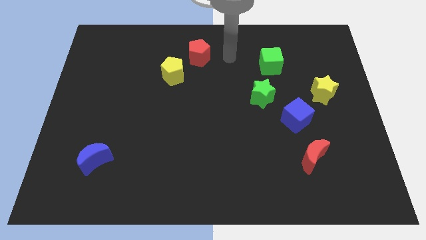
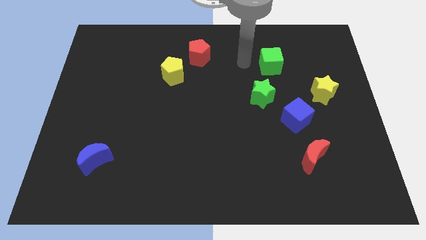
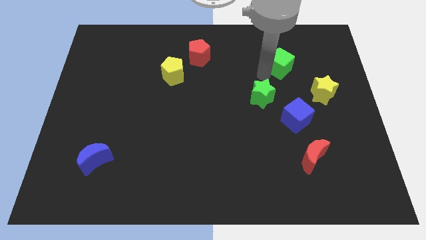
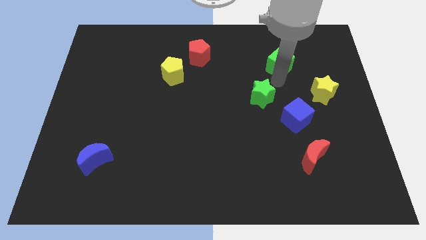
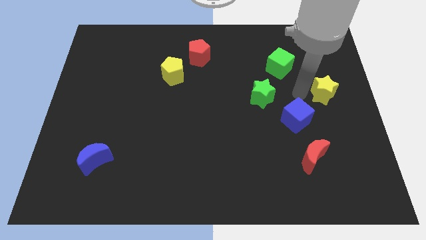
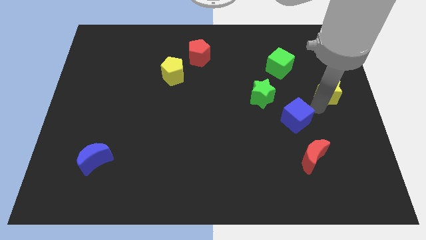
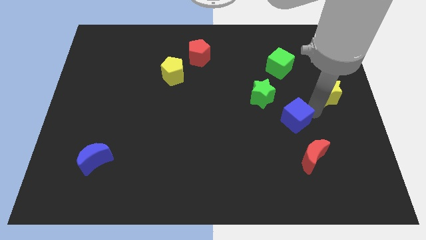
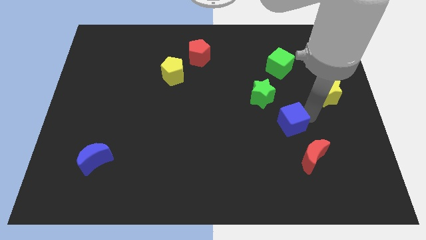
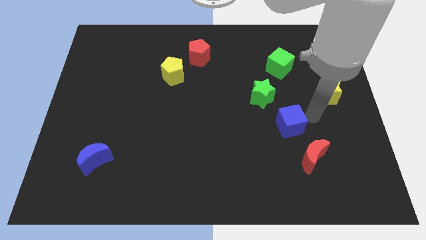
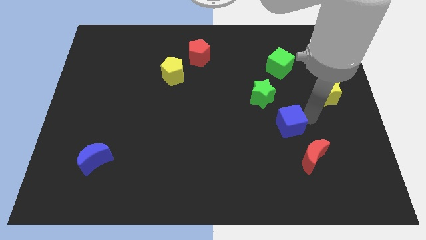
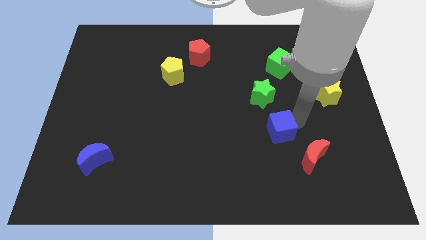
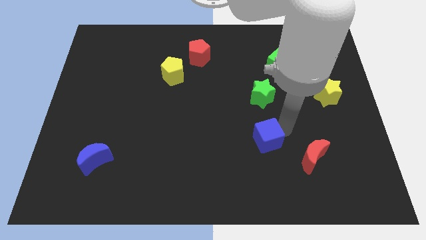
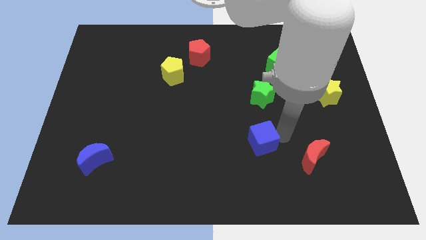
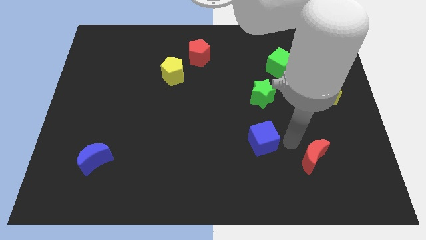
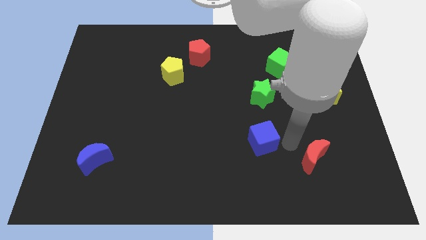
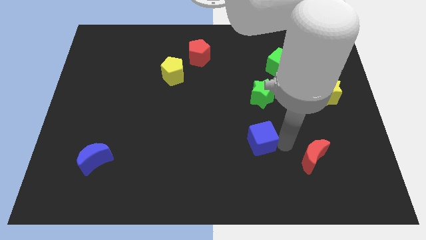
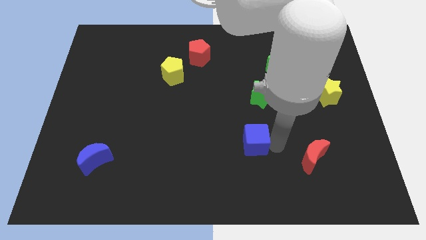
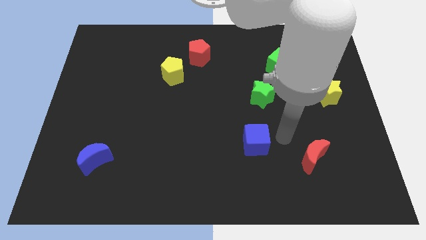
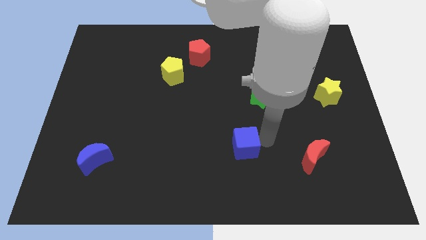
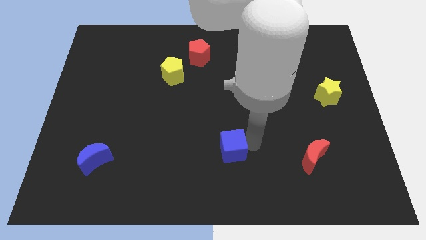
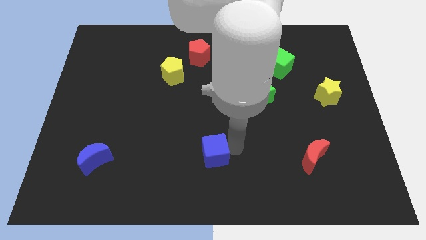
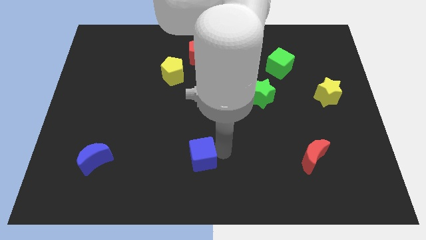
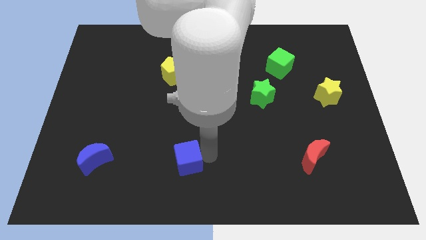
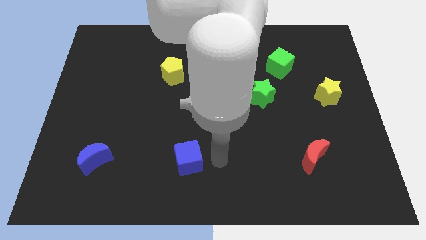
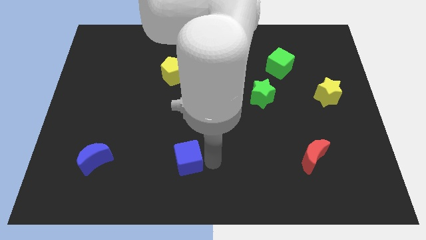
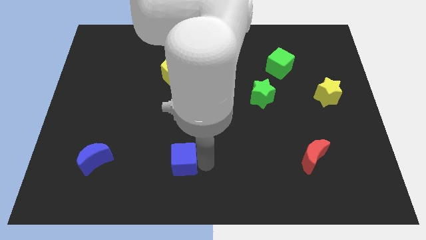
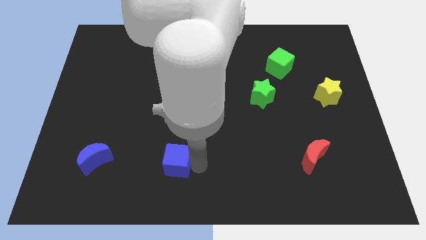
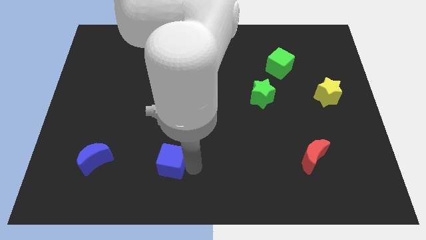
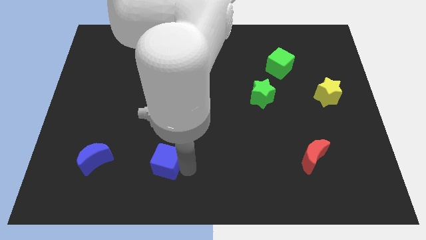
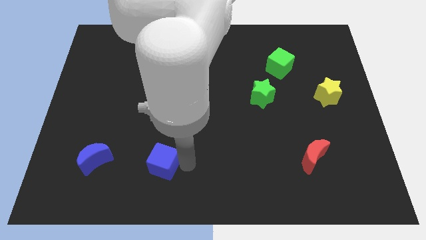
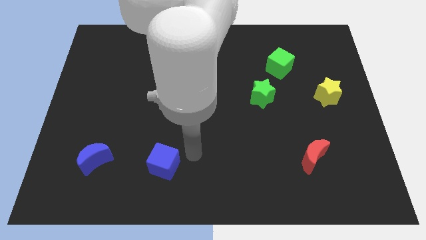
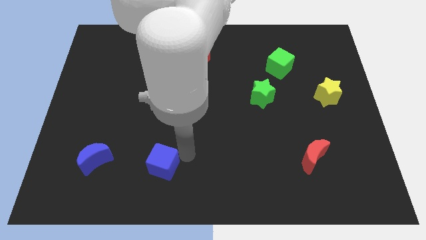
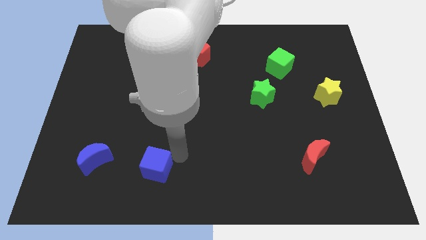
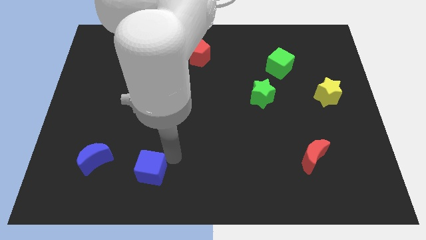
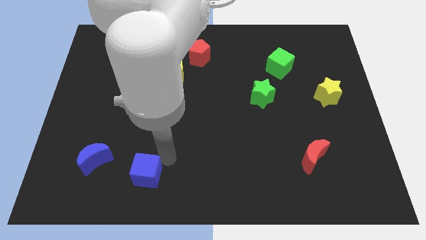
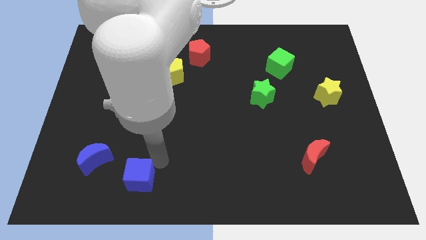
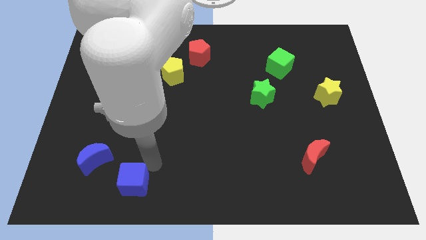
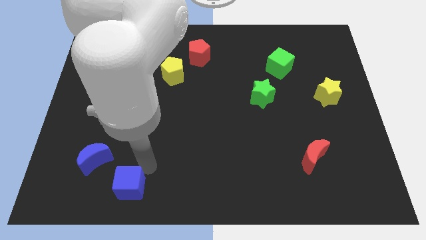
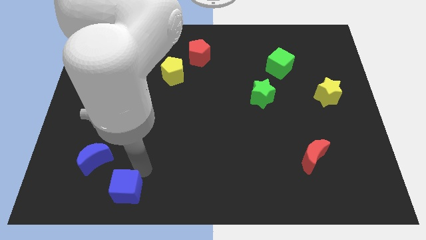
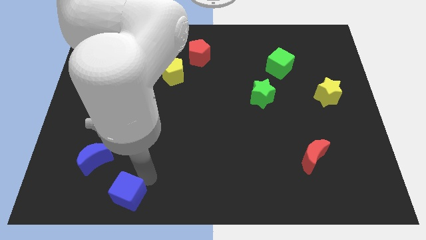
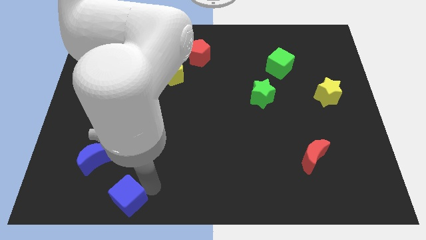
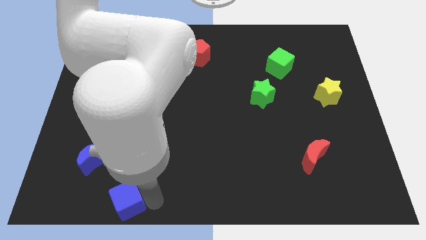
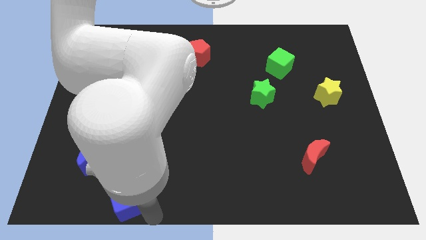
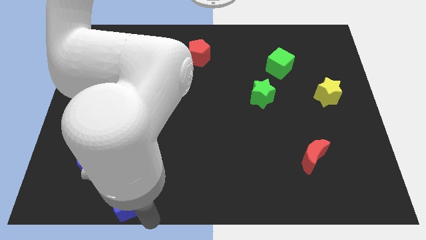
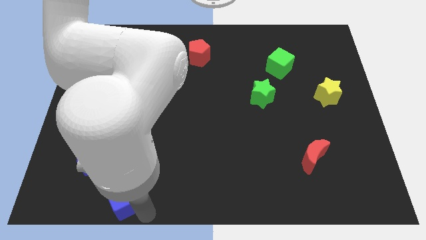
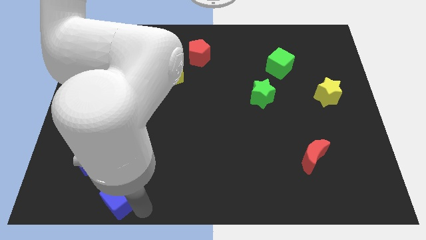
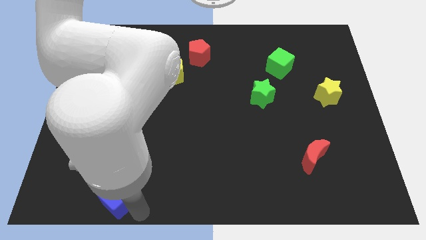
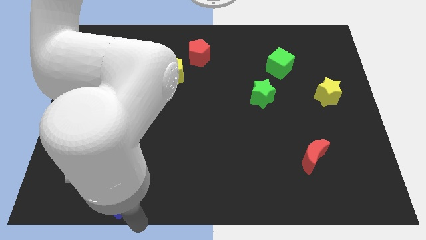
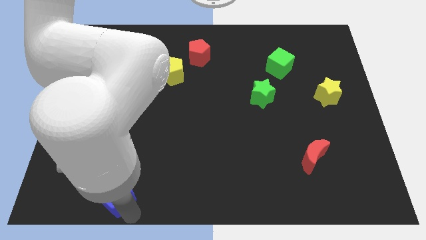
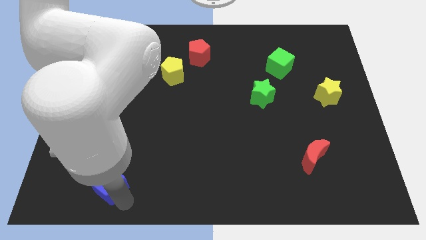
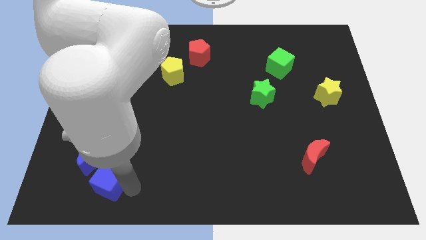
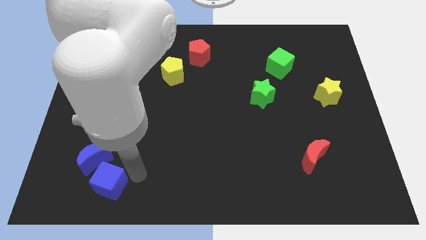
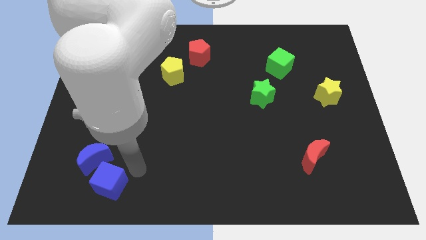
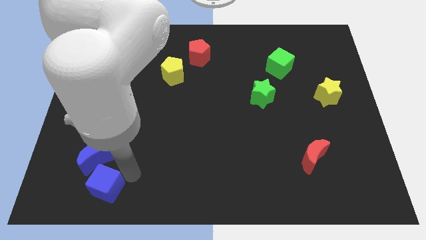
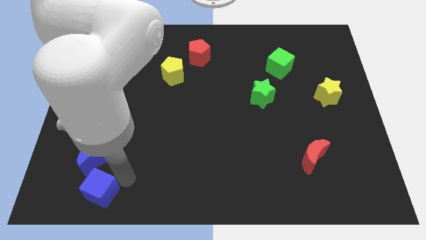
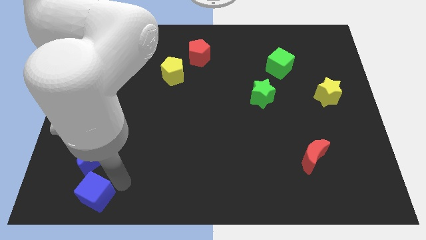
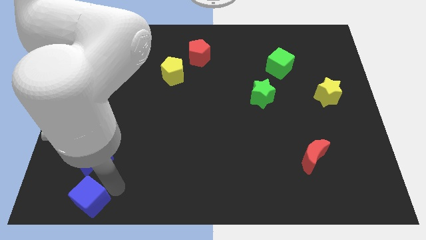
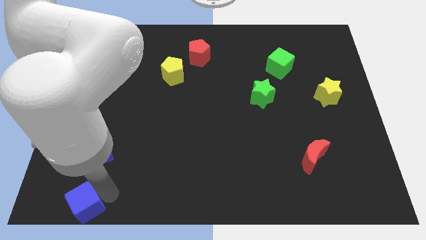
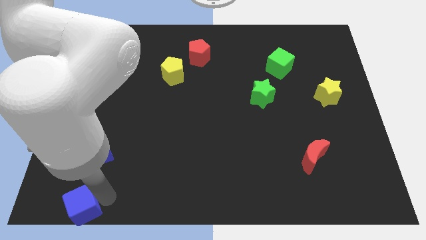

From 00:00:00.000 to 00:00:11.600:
push the blue cube to the bottom left corner

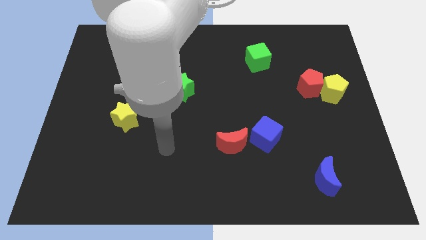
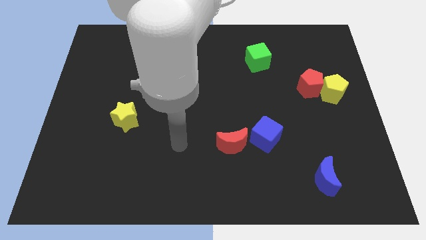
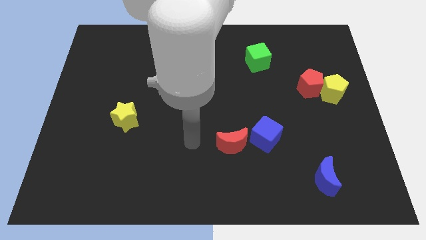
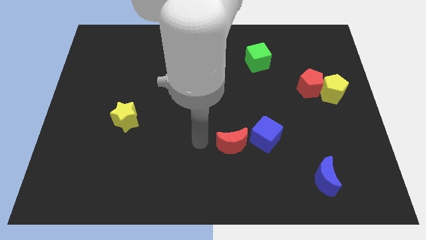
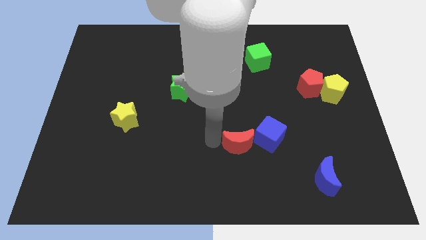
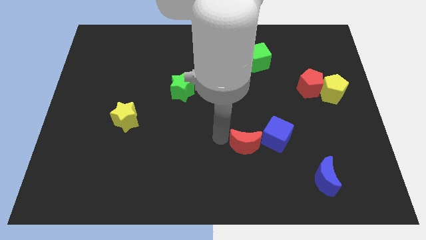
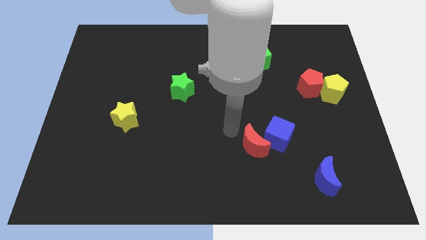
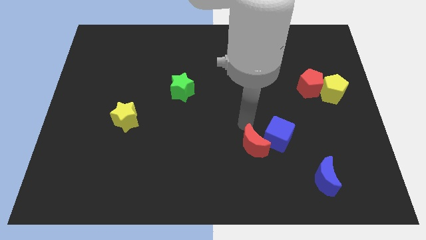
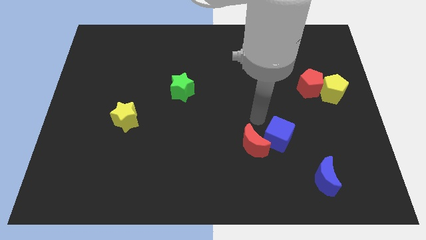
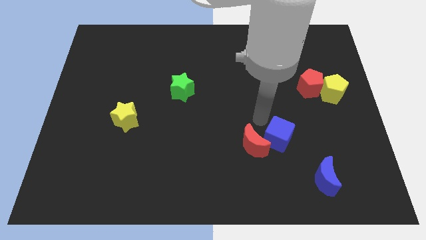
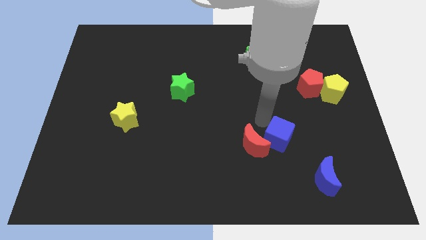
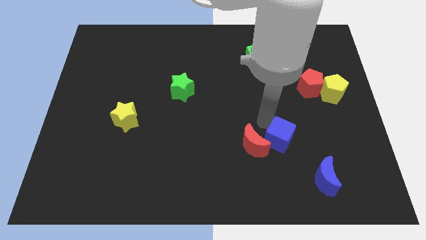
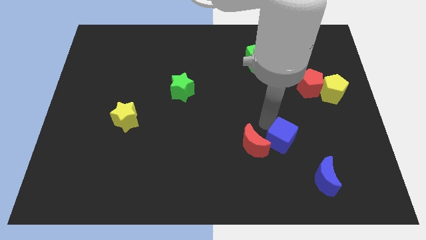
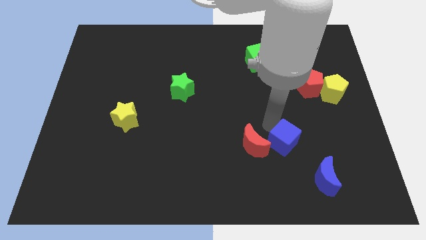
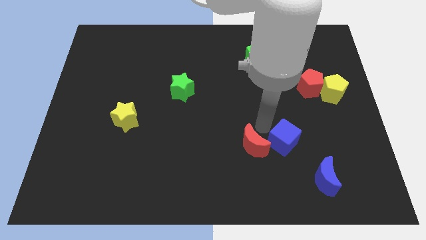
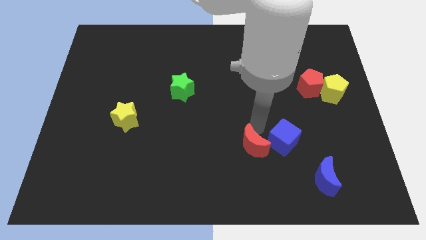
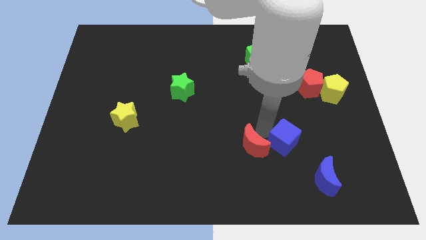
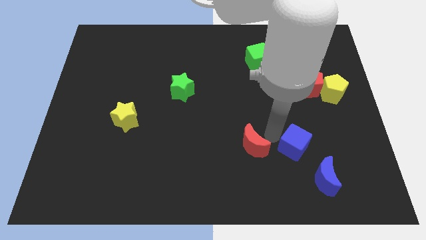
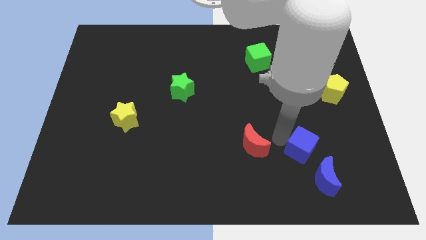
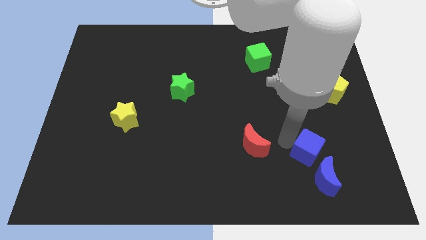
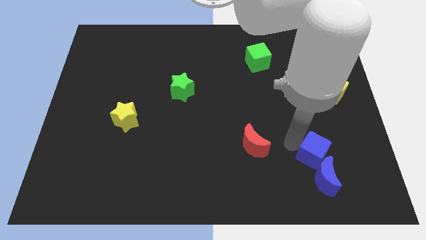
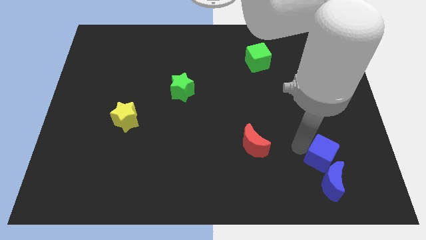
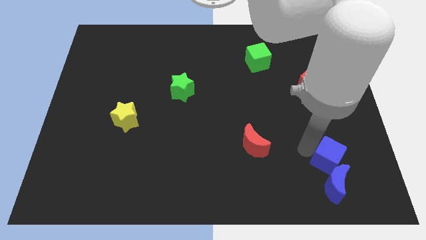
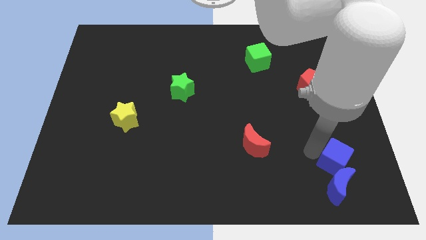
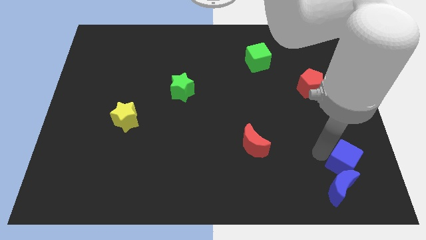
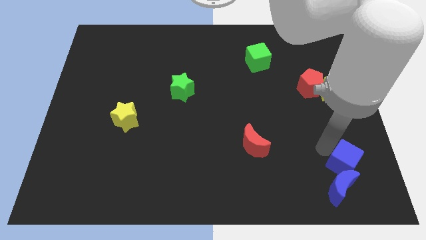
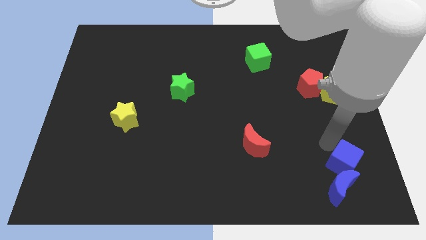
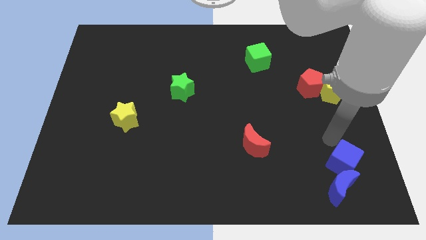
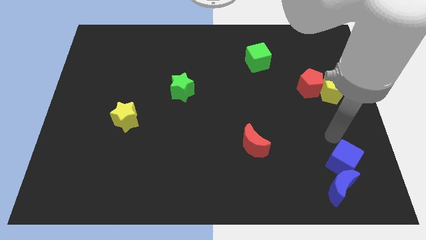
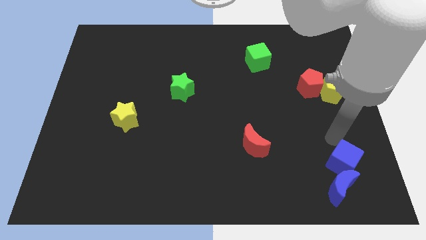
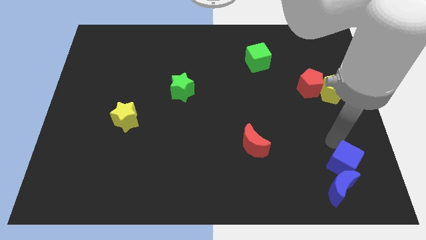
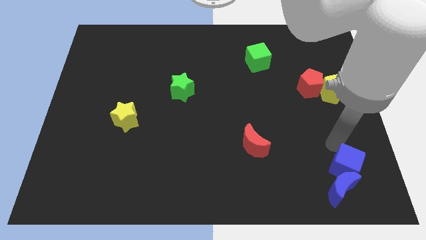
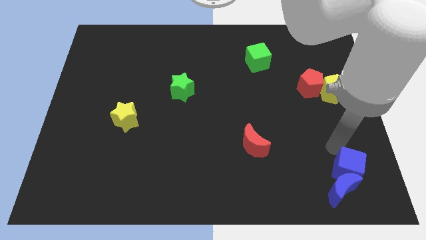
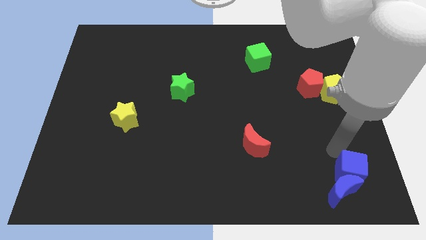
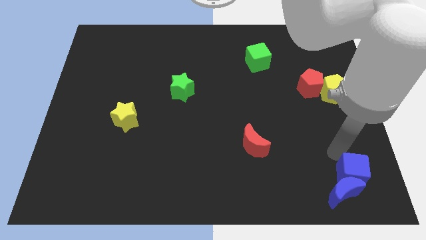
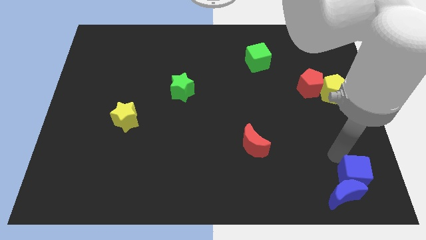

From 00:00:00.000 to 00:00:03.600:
move the blue cube to the lower right corner
